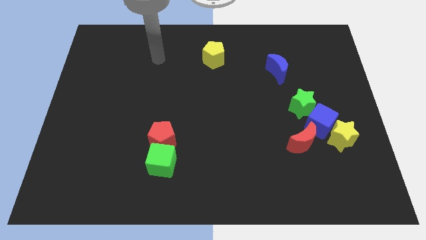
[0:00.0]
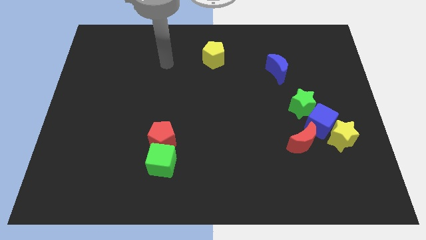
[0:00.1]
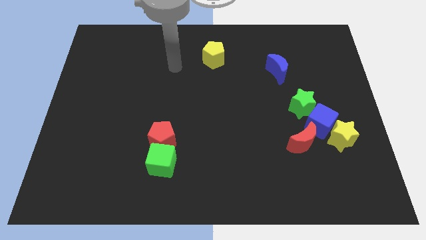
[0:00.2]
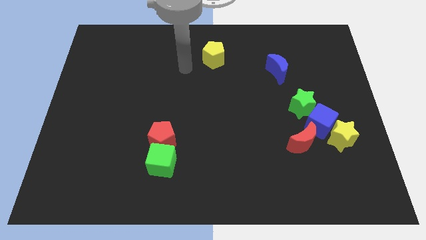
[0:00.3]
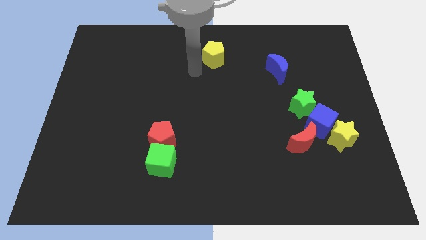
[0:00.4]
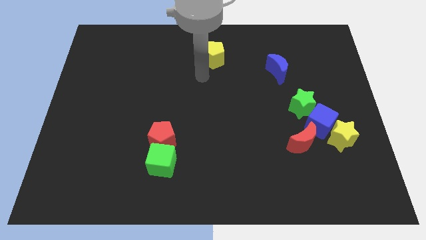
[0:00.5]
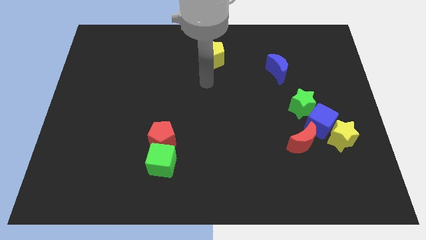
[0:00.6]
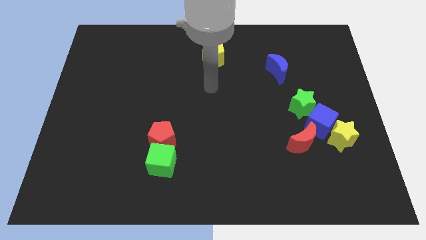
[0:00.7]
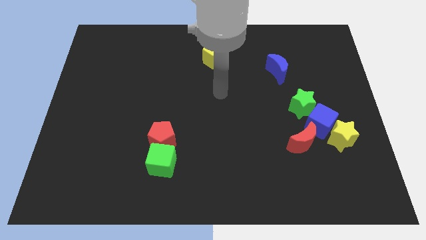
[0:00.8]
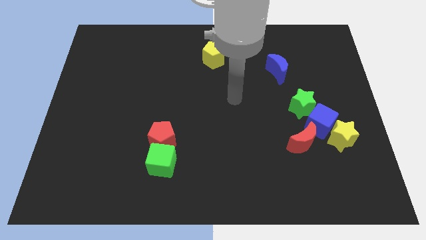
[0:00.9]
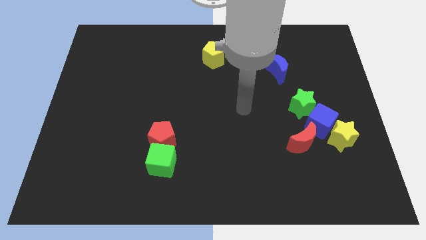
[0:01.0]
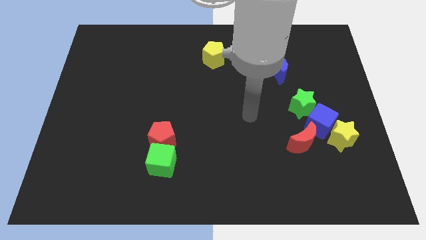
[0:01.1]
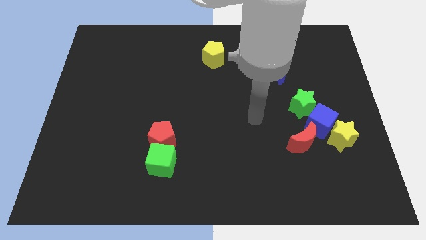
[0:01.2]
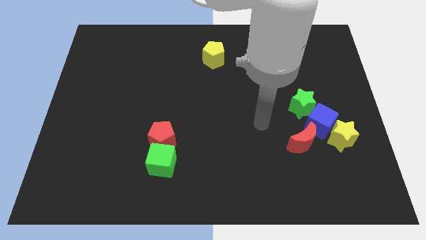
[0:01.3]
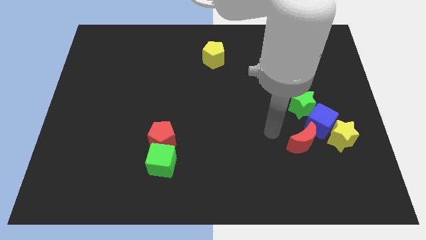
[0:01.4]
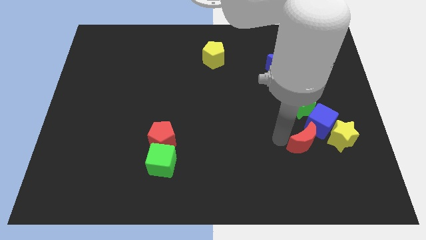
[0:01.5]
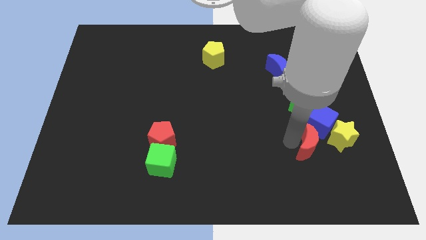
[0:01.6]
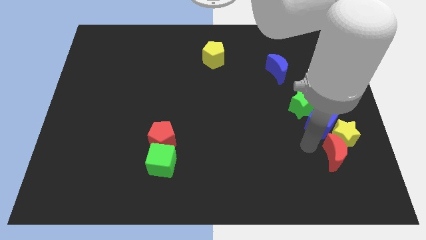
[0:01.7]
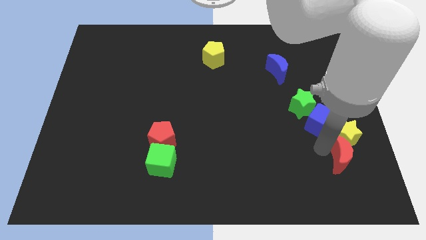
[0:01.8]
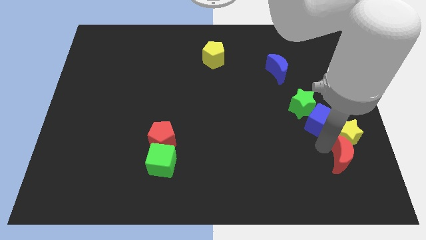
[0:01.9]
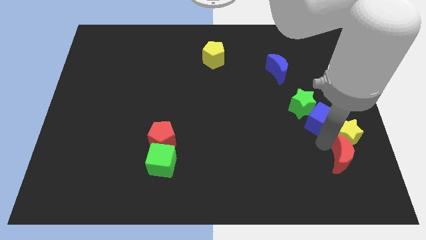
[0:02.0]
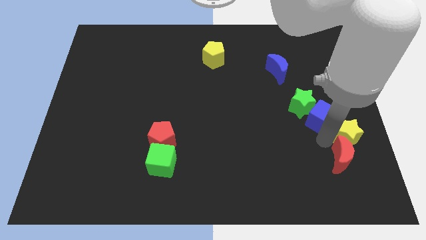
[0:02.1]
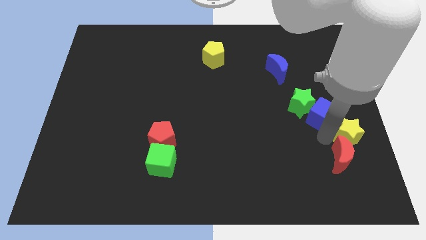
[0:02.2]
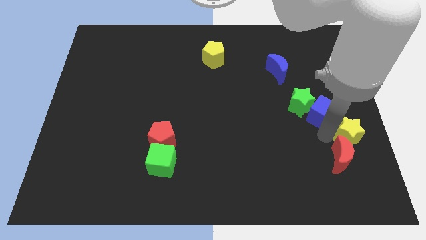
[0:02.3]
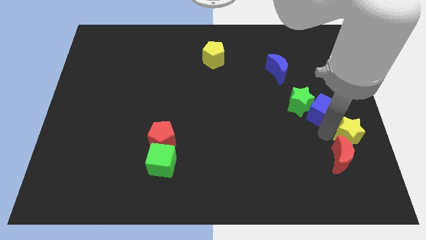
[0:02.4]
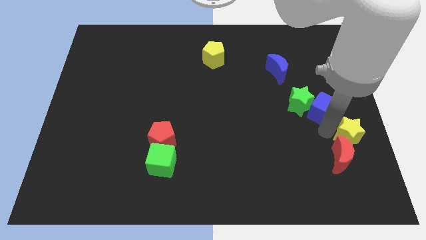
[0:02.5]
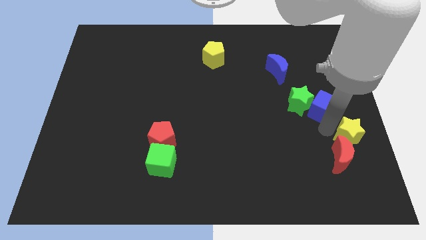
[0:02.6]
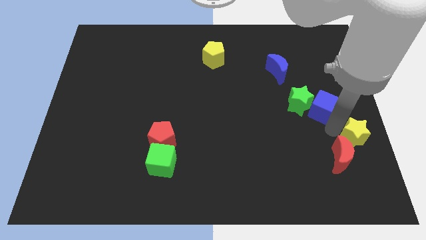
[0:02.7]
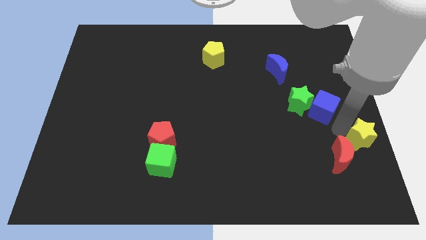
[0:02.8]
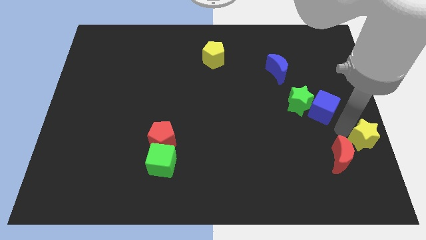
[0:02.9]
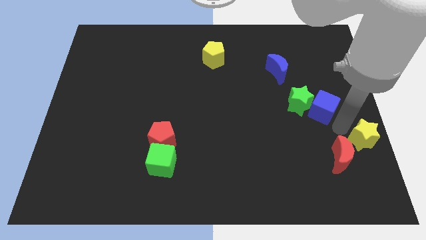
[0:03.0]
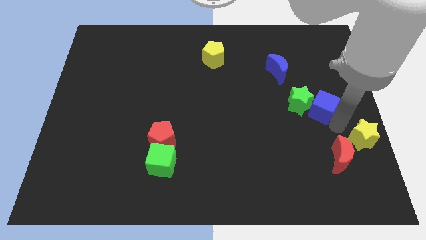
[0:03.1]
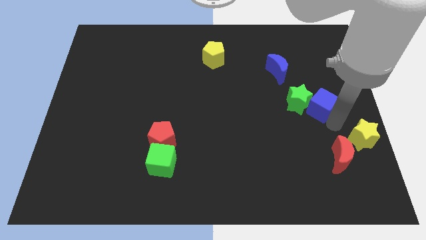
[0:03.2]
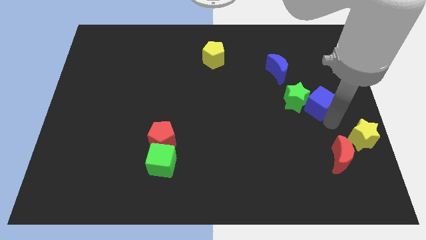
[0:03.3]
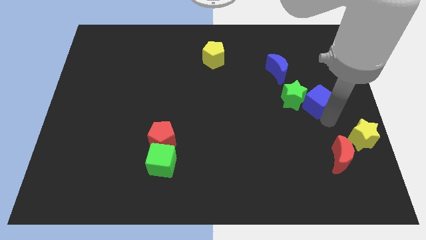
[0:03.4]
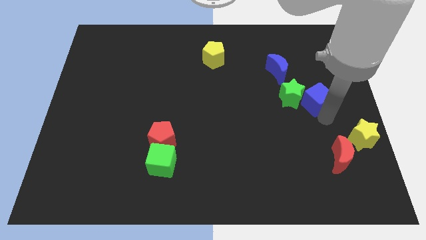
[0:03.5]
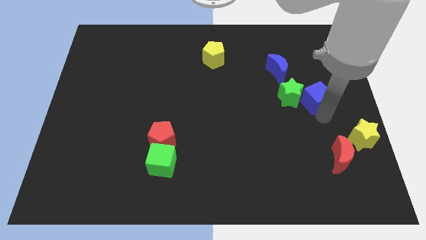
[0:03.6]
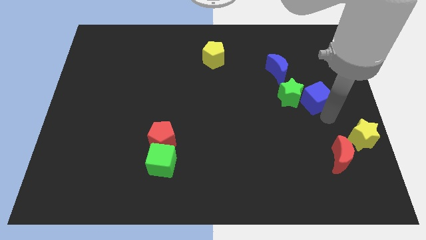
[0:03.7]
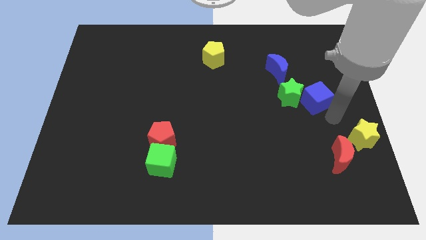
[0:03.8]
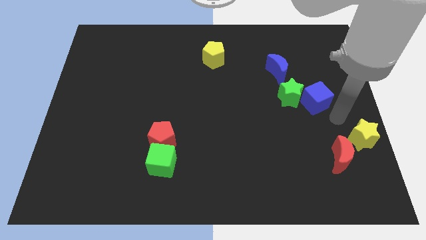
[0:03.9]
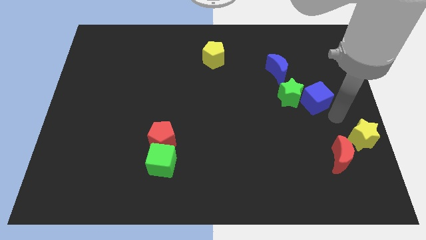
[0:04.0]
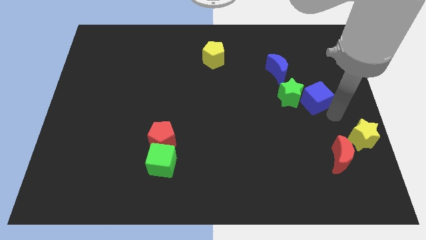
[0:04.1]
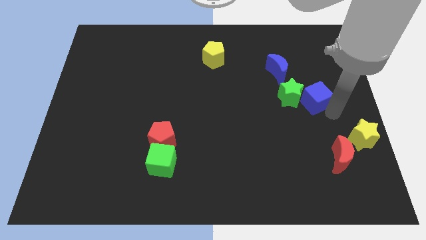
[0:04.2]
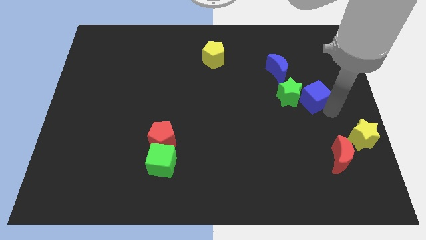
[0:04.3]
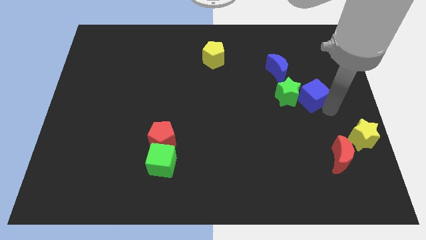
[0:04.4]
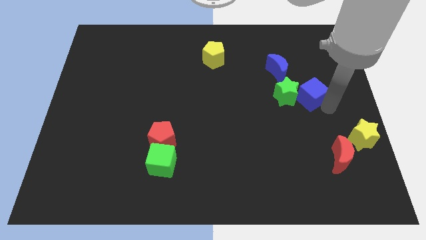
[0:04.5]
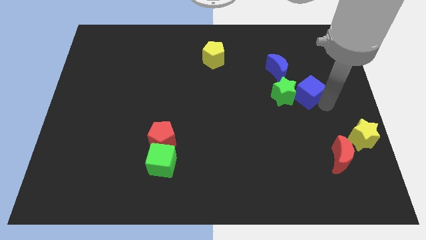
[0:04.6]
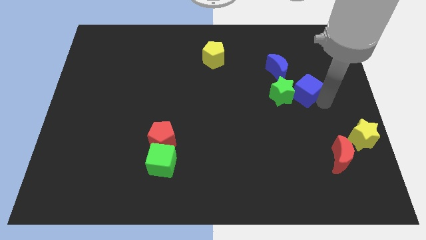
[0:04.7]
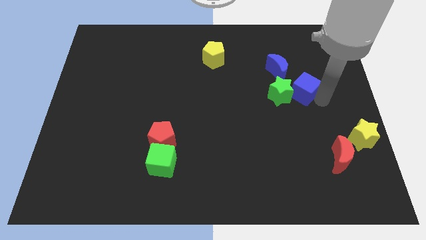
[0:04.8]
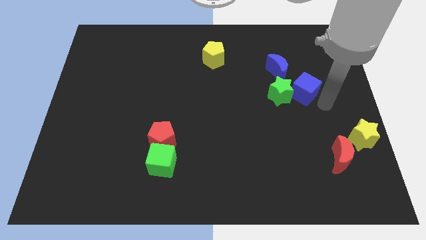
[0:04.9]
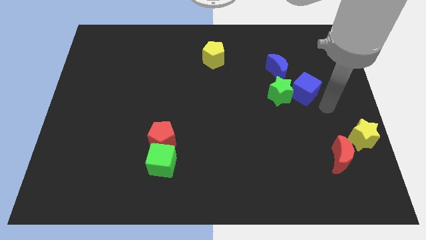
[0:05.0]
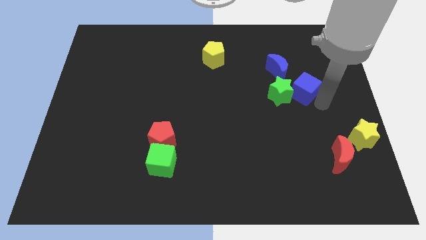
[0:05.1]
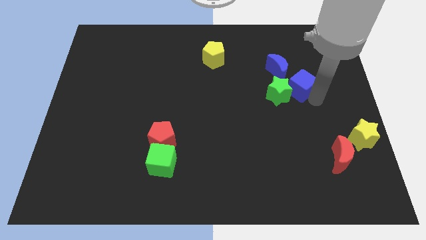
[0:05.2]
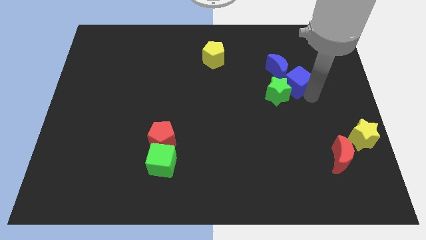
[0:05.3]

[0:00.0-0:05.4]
move the blue cube close to the blue moon

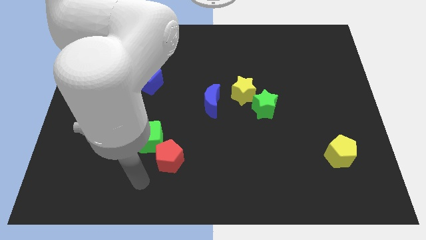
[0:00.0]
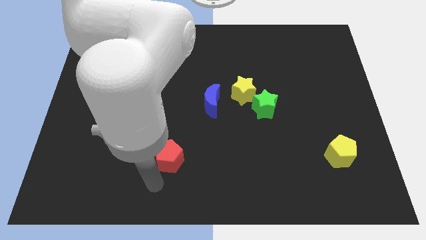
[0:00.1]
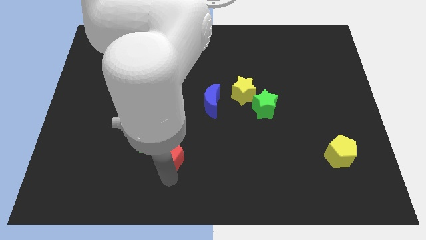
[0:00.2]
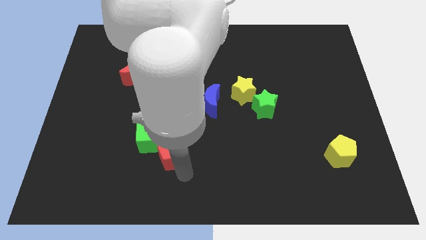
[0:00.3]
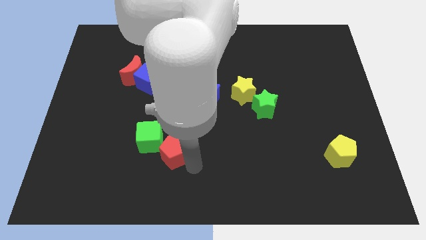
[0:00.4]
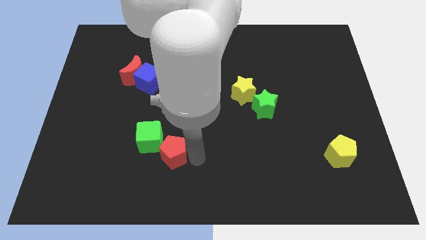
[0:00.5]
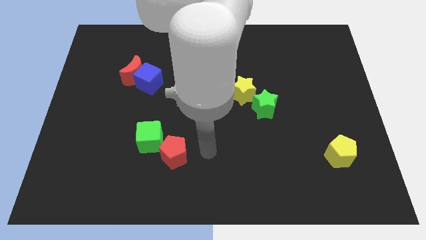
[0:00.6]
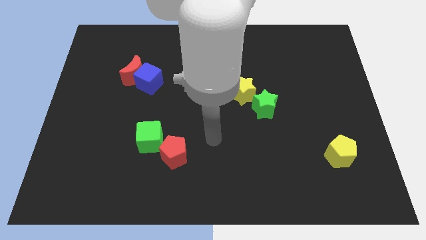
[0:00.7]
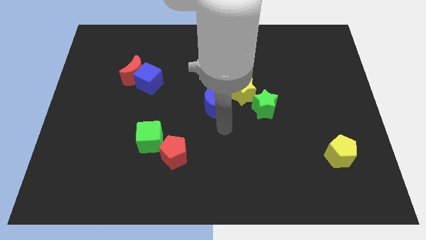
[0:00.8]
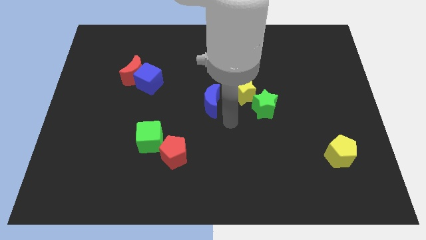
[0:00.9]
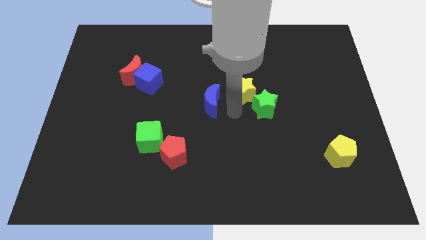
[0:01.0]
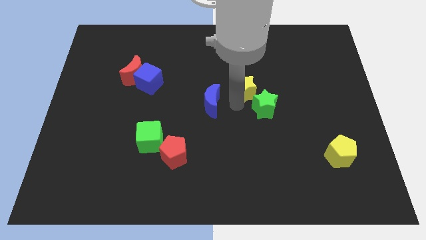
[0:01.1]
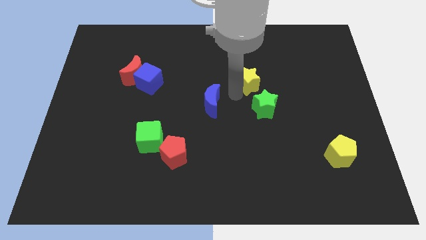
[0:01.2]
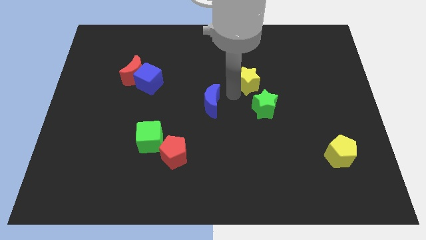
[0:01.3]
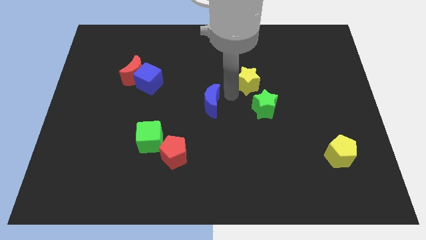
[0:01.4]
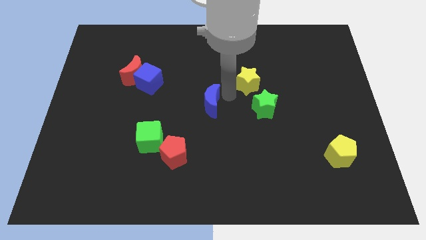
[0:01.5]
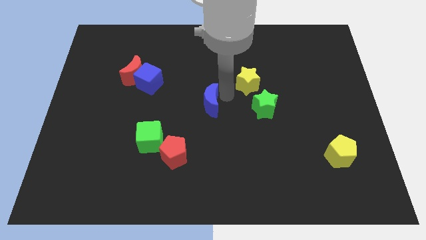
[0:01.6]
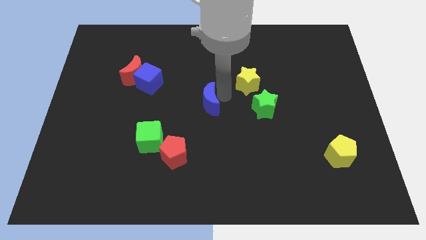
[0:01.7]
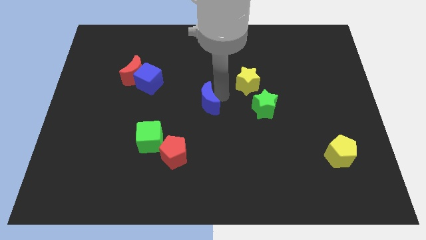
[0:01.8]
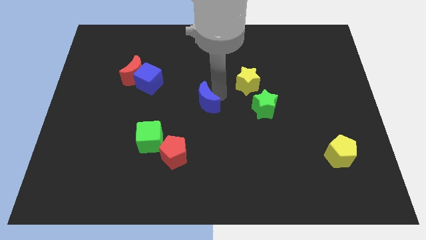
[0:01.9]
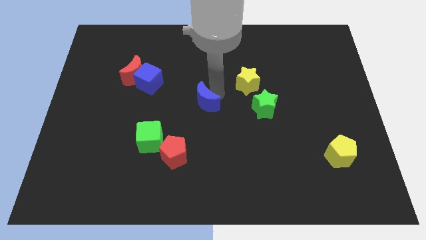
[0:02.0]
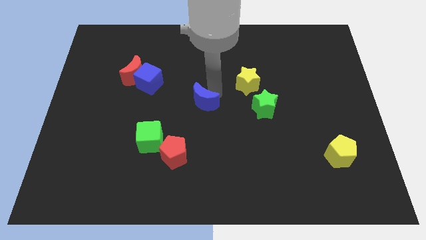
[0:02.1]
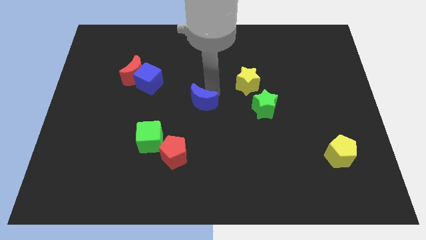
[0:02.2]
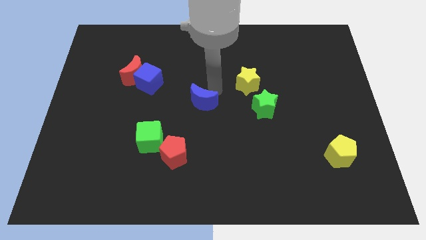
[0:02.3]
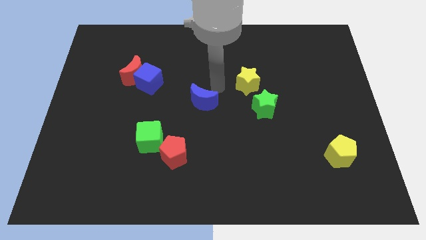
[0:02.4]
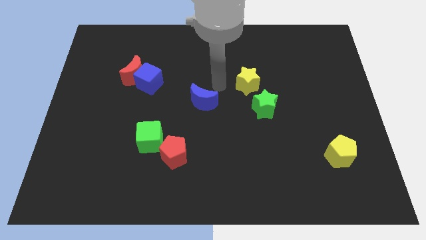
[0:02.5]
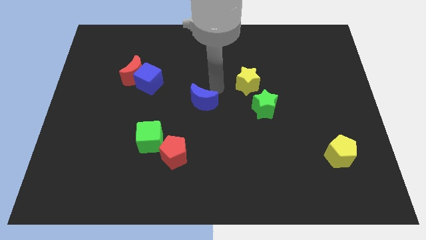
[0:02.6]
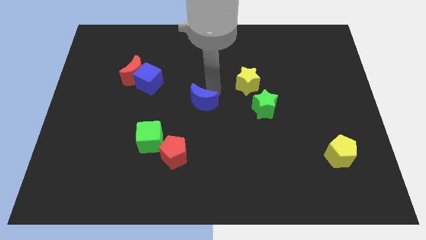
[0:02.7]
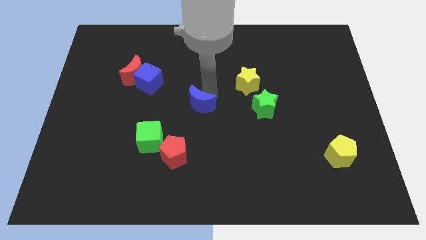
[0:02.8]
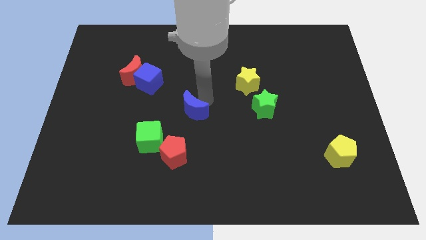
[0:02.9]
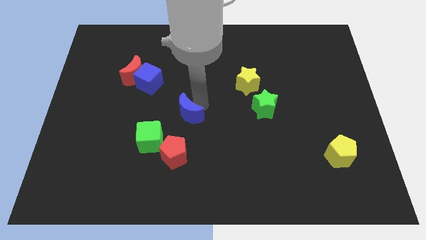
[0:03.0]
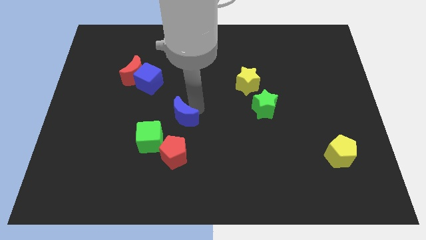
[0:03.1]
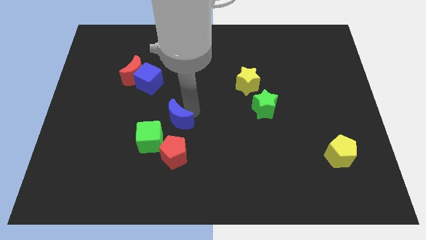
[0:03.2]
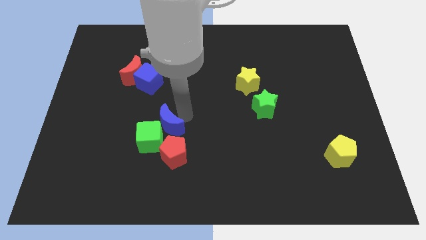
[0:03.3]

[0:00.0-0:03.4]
put the blue moon close to the green cube
